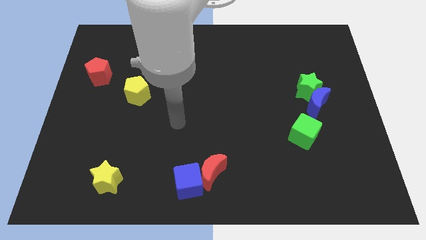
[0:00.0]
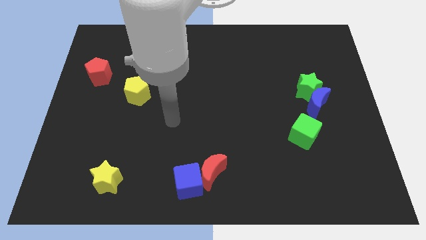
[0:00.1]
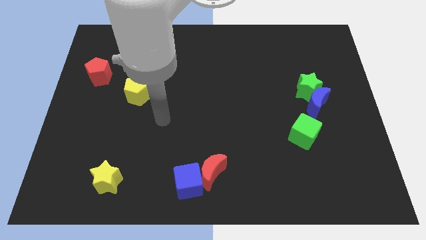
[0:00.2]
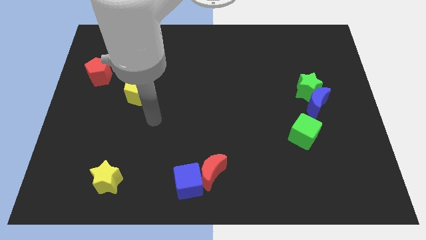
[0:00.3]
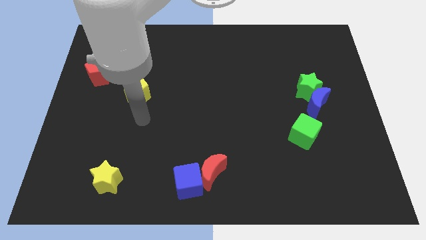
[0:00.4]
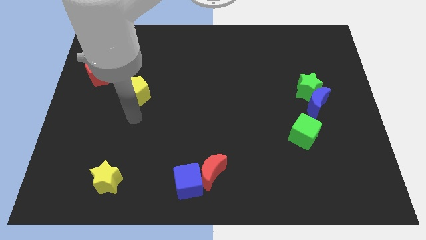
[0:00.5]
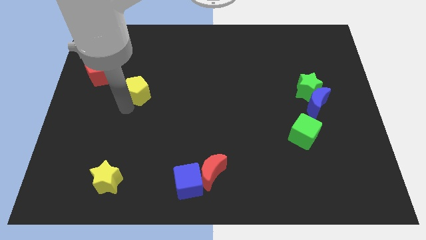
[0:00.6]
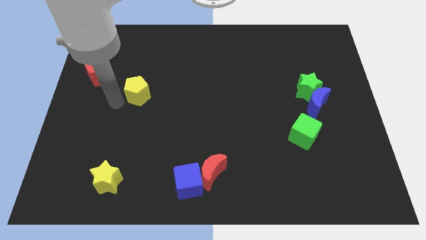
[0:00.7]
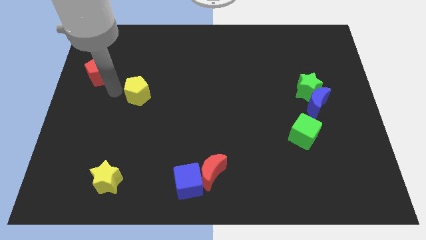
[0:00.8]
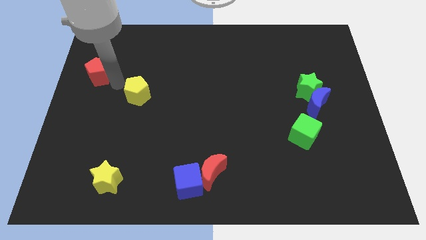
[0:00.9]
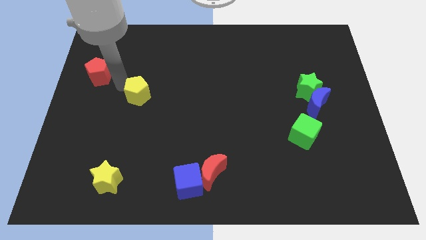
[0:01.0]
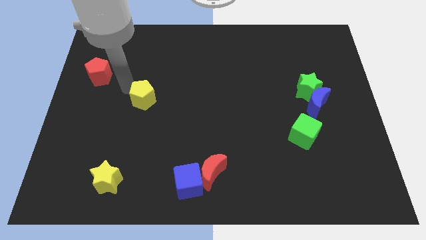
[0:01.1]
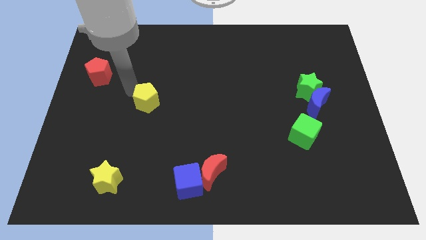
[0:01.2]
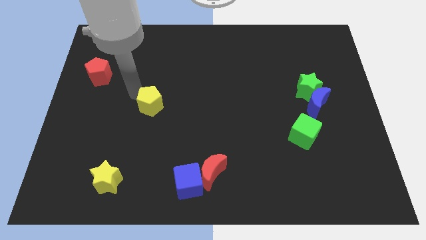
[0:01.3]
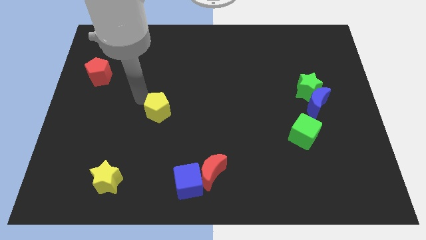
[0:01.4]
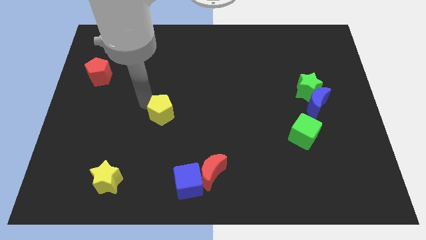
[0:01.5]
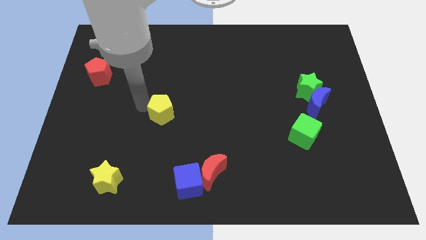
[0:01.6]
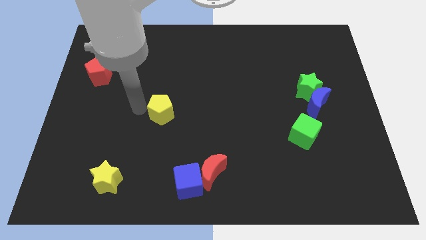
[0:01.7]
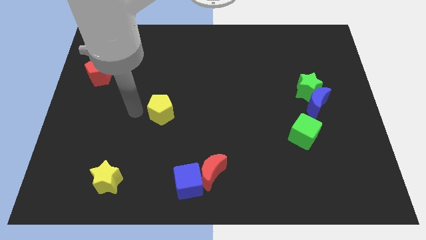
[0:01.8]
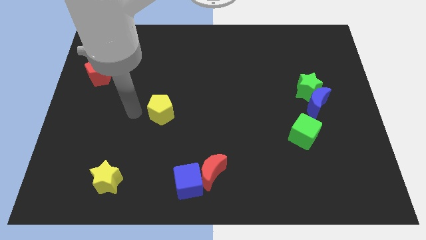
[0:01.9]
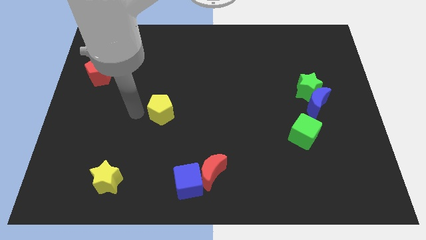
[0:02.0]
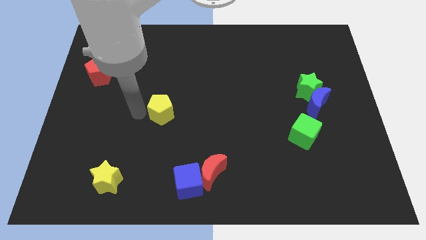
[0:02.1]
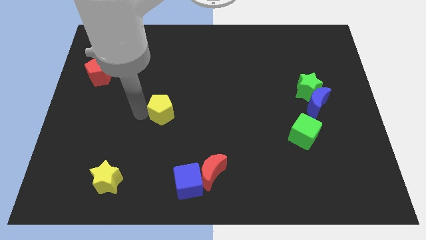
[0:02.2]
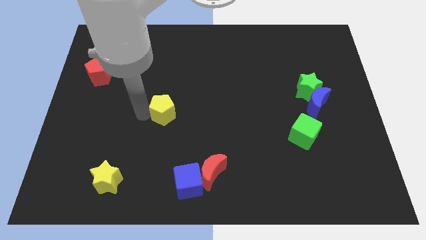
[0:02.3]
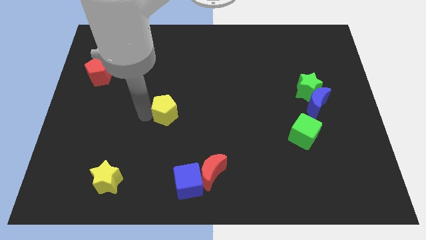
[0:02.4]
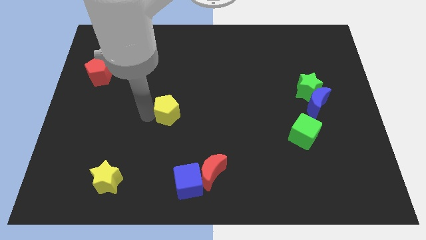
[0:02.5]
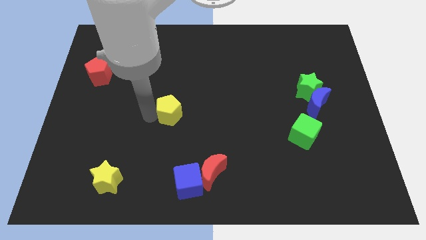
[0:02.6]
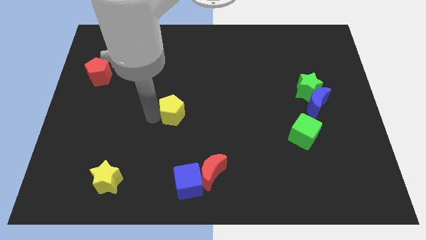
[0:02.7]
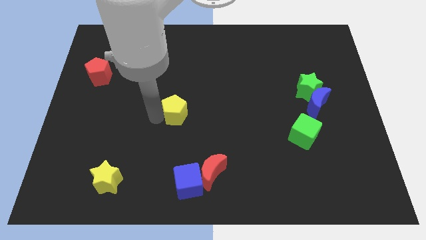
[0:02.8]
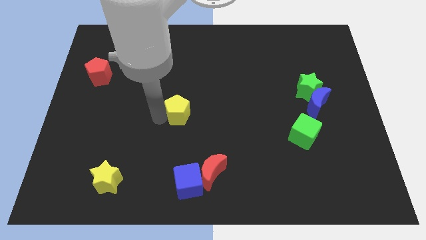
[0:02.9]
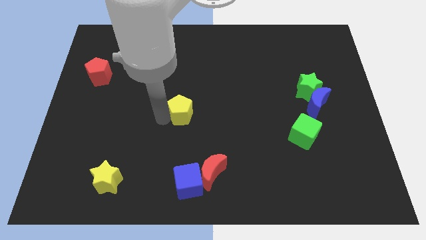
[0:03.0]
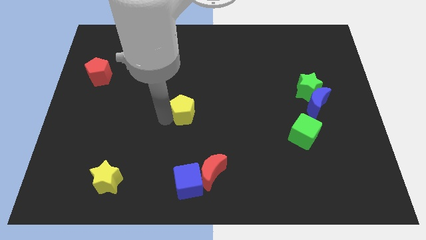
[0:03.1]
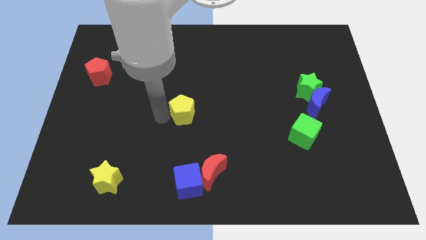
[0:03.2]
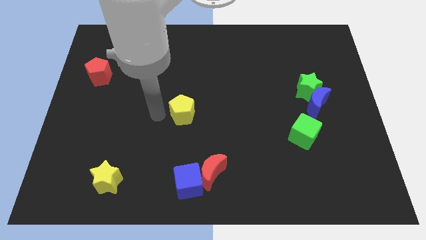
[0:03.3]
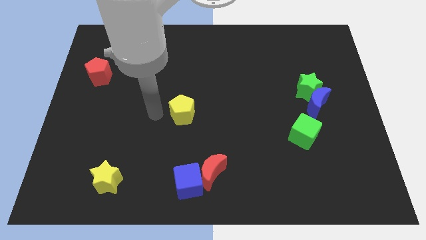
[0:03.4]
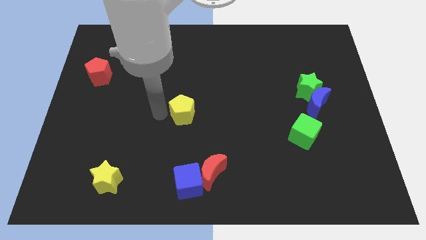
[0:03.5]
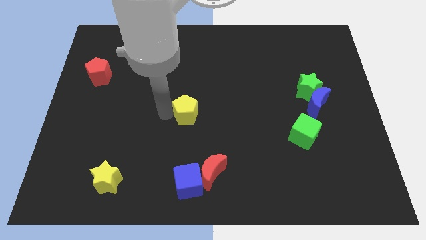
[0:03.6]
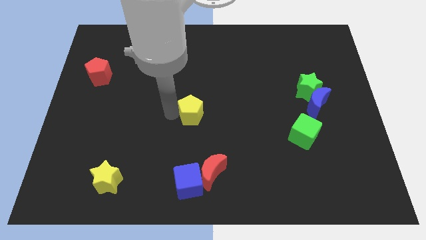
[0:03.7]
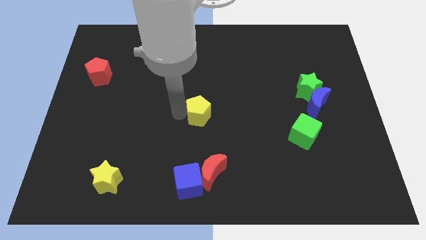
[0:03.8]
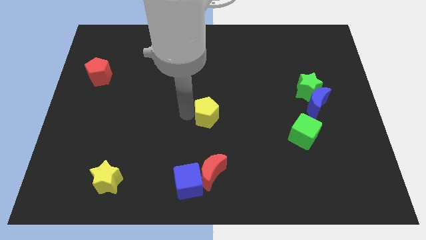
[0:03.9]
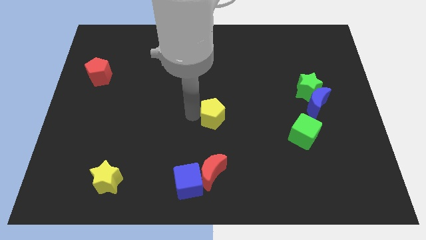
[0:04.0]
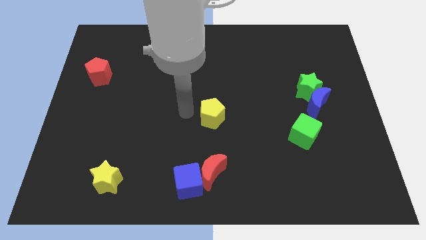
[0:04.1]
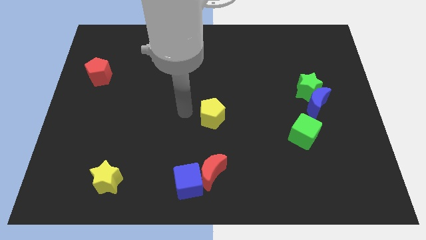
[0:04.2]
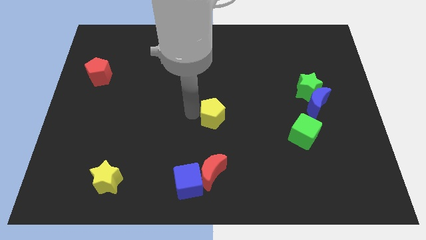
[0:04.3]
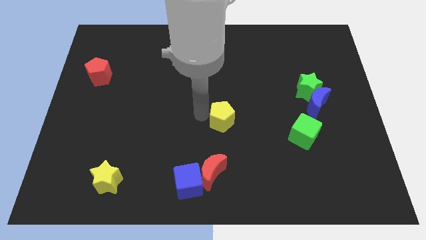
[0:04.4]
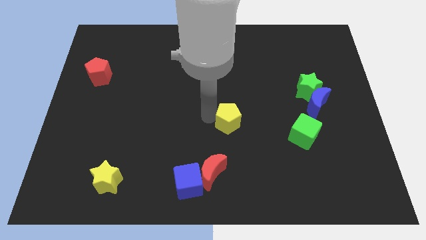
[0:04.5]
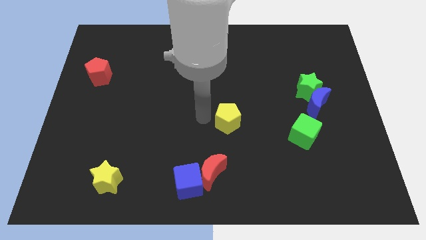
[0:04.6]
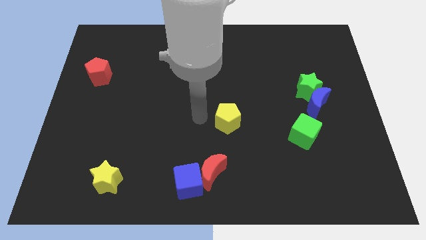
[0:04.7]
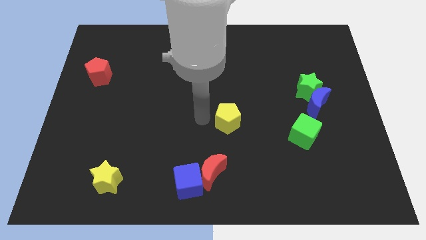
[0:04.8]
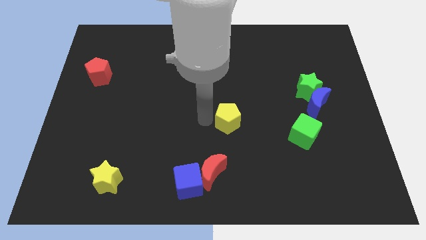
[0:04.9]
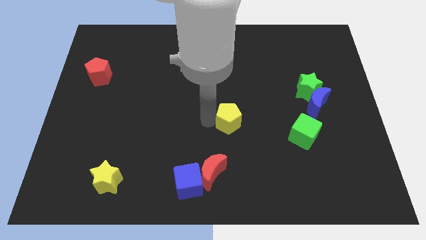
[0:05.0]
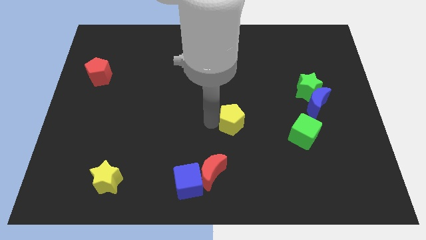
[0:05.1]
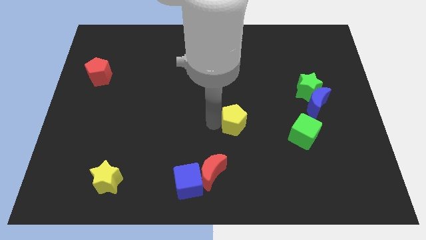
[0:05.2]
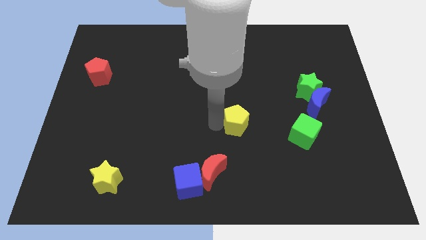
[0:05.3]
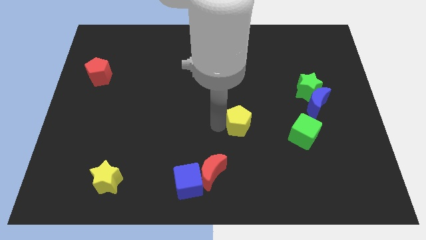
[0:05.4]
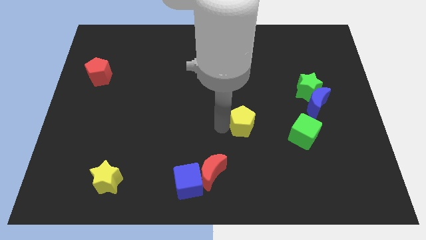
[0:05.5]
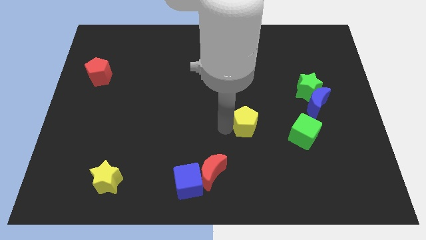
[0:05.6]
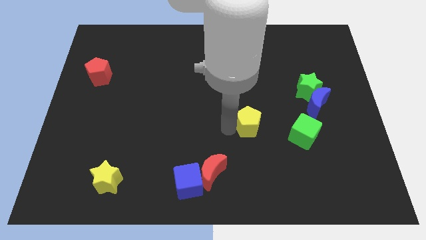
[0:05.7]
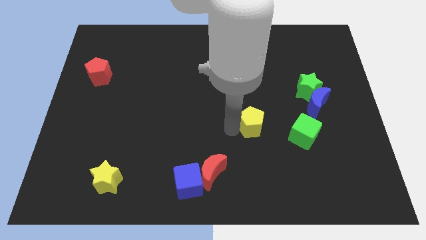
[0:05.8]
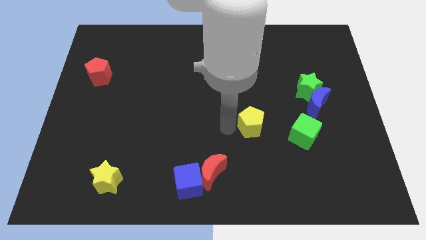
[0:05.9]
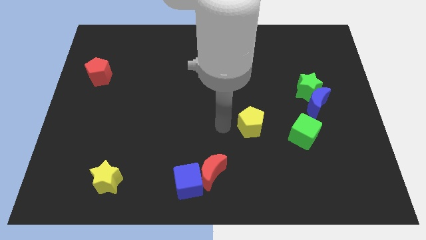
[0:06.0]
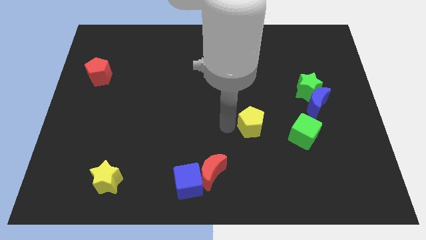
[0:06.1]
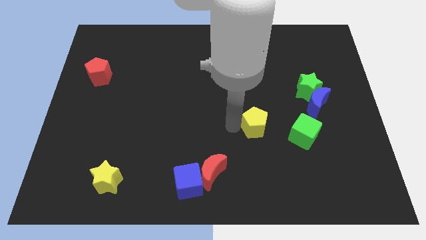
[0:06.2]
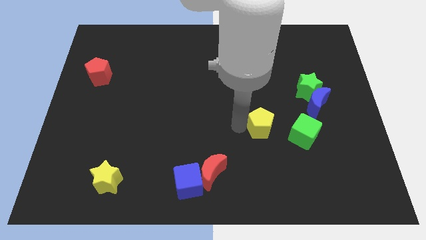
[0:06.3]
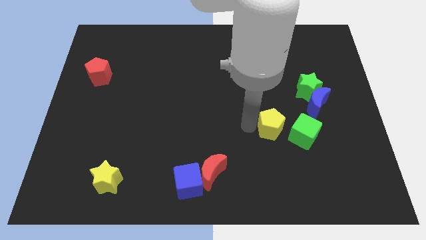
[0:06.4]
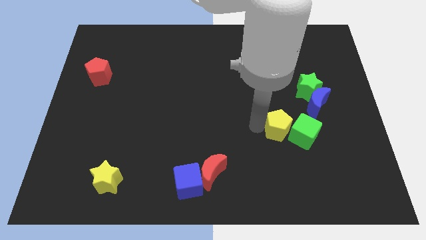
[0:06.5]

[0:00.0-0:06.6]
move the yellow pentagon to the green cube
